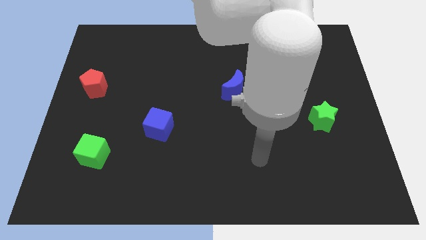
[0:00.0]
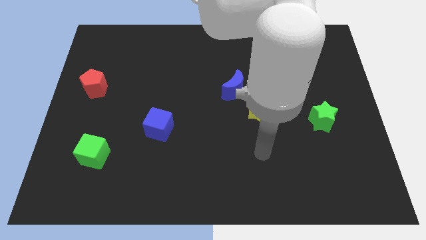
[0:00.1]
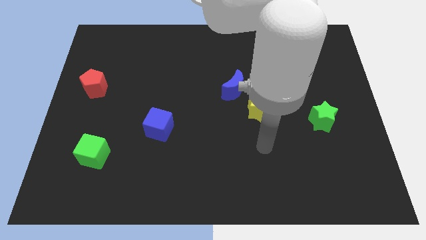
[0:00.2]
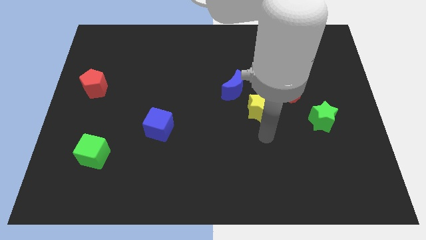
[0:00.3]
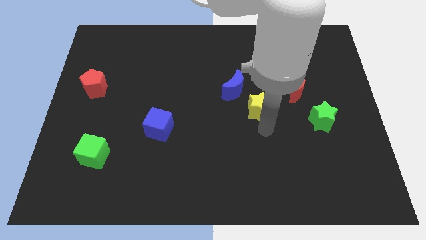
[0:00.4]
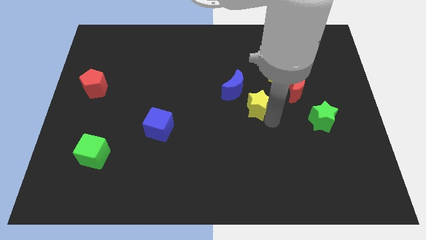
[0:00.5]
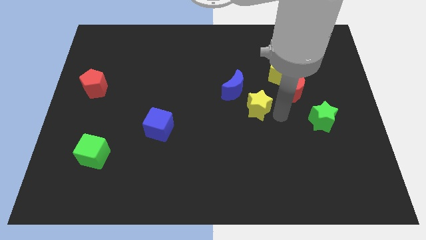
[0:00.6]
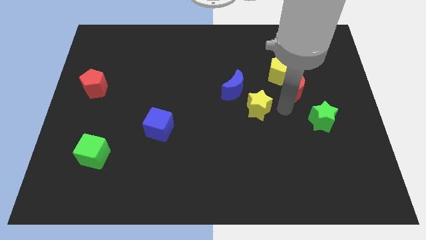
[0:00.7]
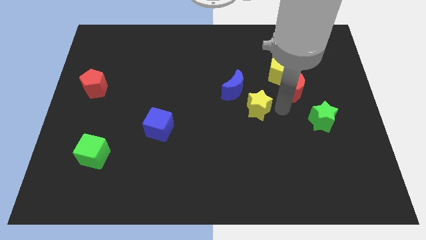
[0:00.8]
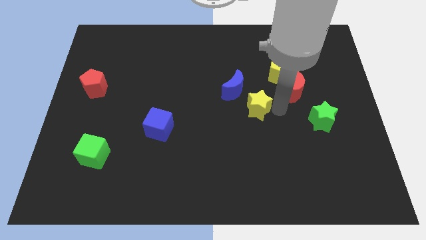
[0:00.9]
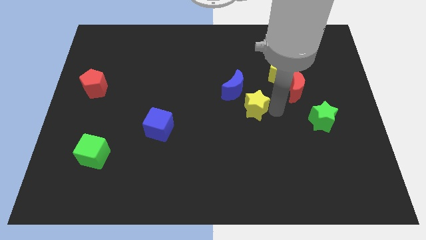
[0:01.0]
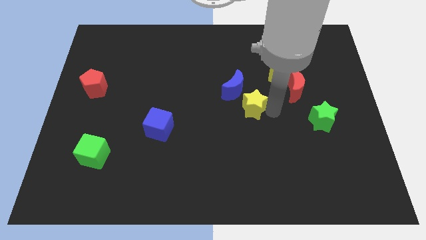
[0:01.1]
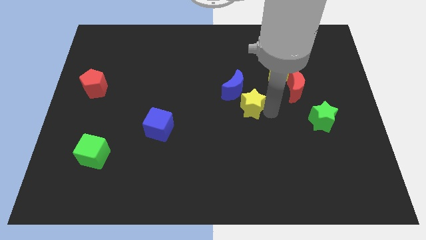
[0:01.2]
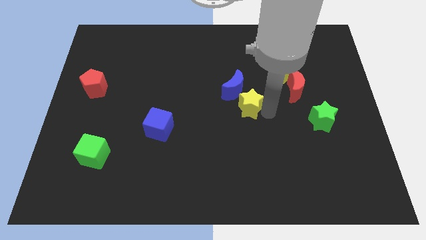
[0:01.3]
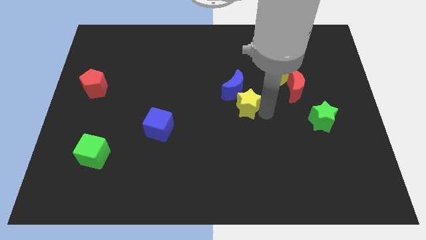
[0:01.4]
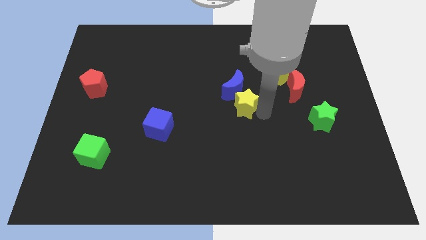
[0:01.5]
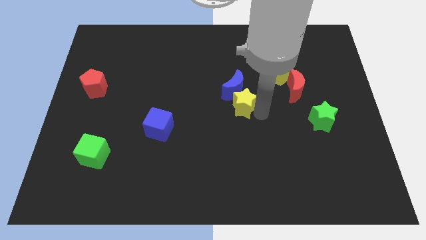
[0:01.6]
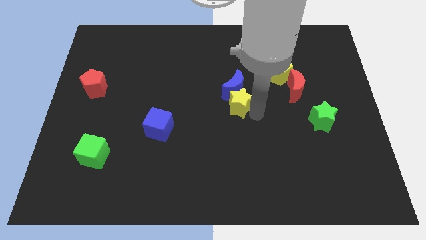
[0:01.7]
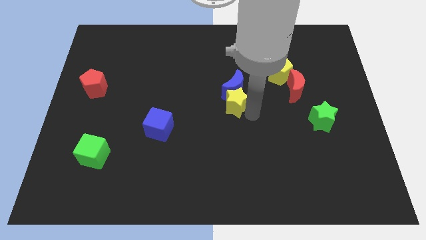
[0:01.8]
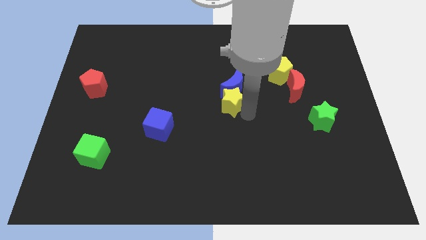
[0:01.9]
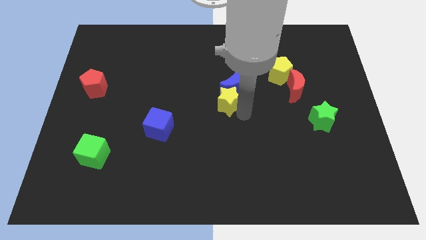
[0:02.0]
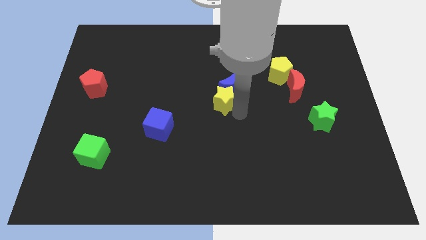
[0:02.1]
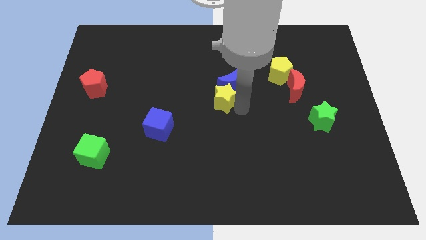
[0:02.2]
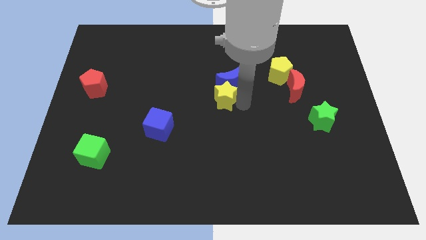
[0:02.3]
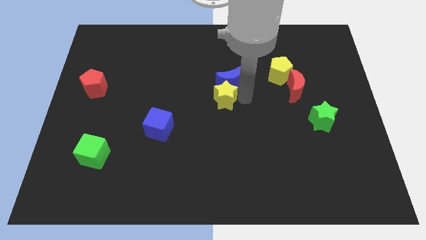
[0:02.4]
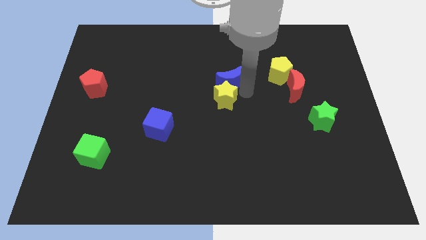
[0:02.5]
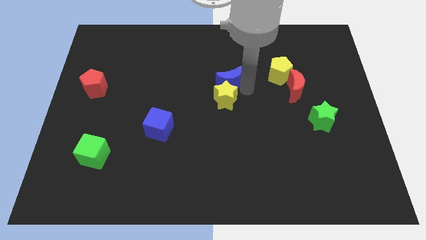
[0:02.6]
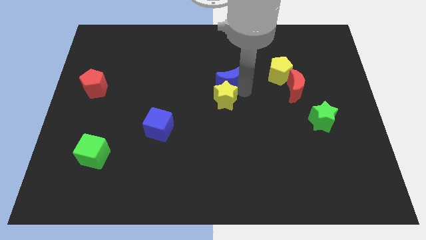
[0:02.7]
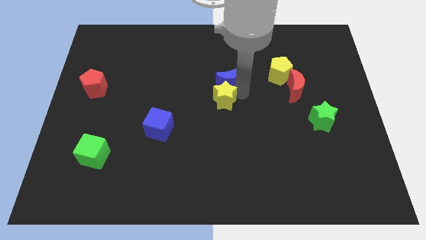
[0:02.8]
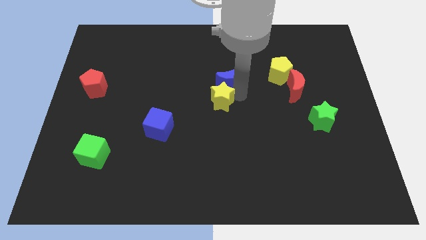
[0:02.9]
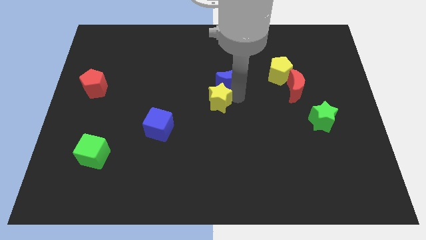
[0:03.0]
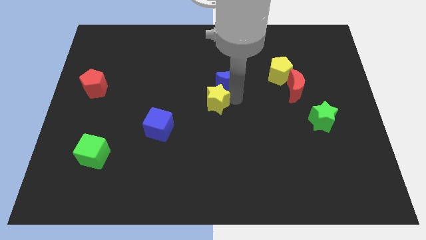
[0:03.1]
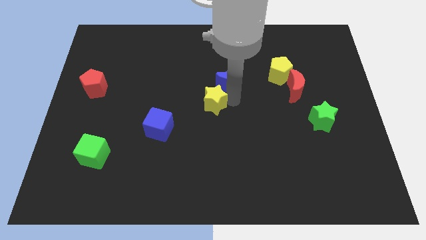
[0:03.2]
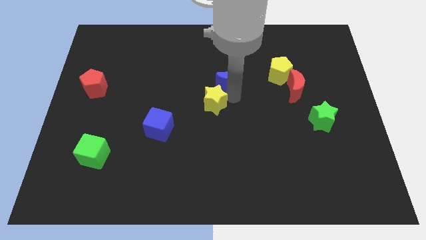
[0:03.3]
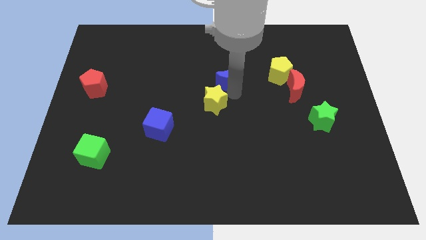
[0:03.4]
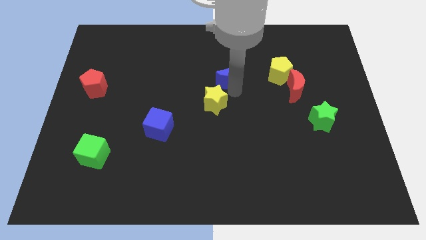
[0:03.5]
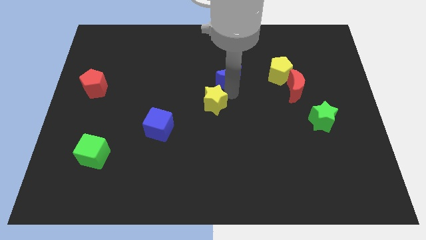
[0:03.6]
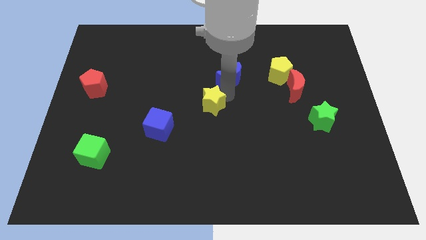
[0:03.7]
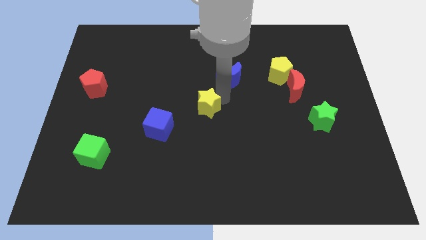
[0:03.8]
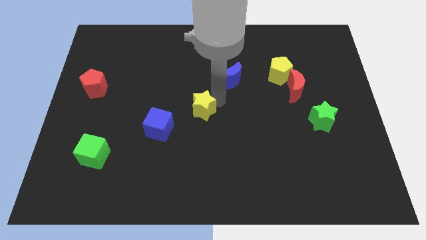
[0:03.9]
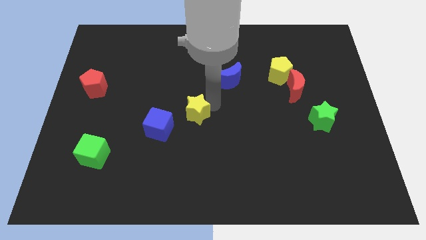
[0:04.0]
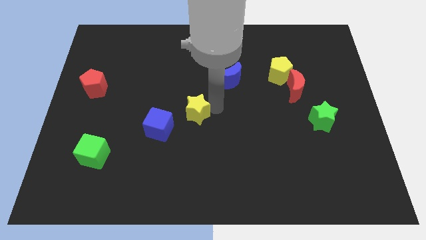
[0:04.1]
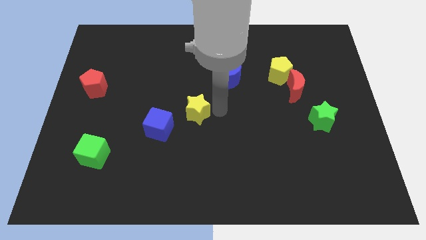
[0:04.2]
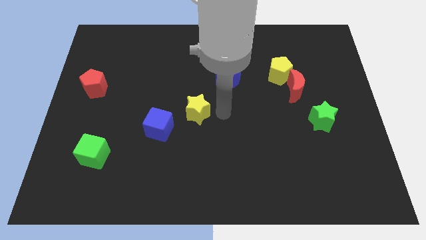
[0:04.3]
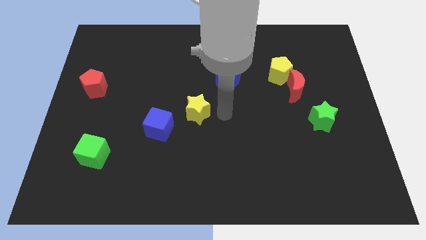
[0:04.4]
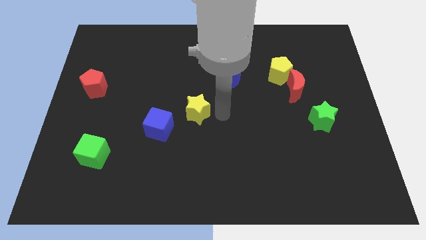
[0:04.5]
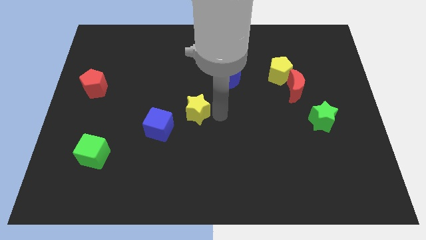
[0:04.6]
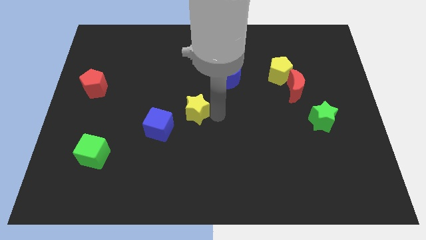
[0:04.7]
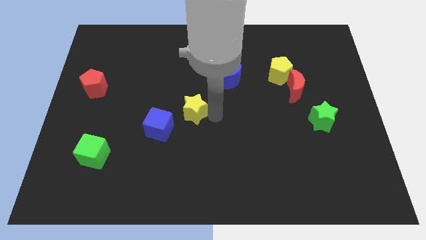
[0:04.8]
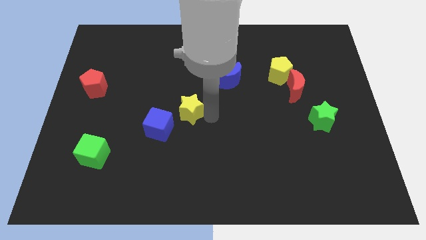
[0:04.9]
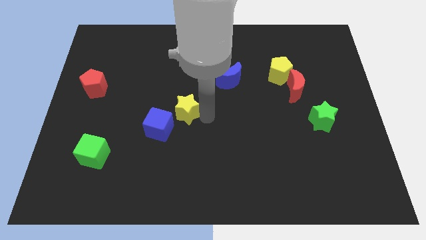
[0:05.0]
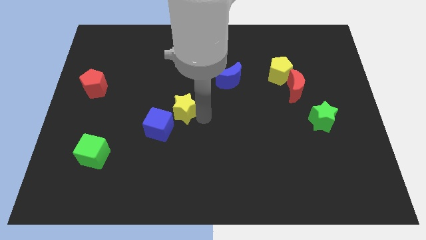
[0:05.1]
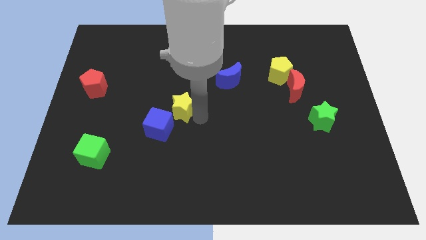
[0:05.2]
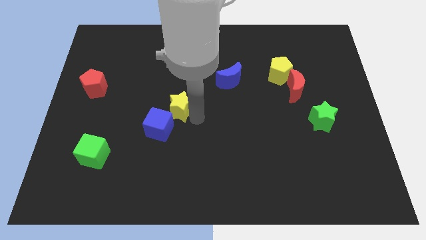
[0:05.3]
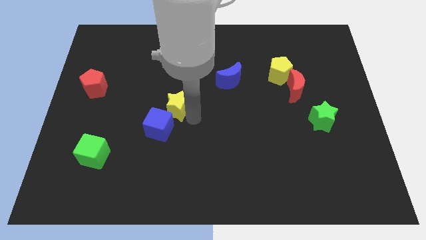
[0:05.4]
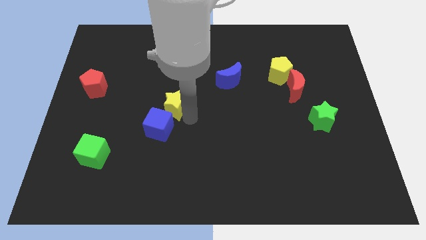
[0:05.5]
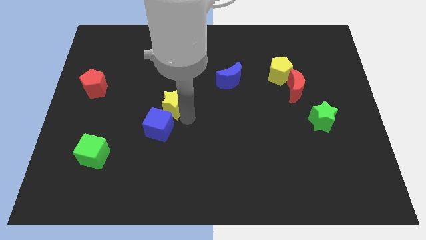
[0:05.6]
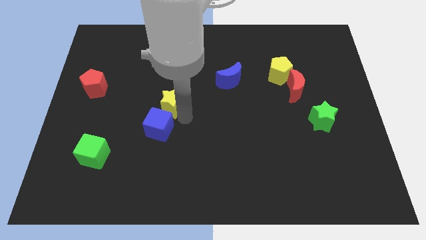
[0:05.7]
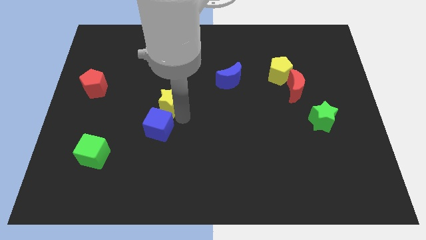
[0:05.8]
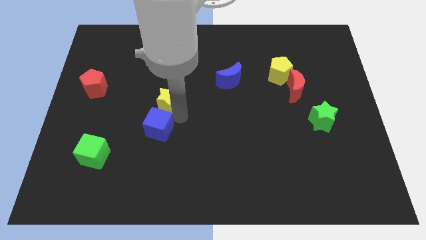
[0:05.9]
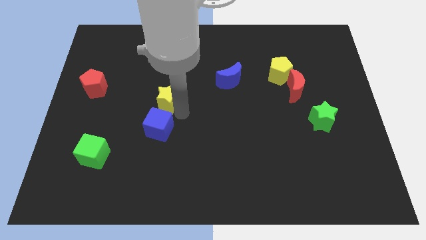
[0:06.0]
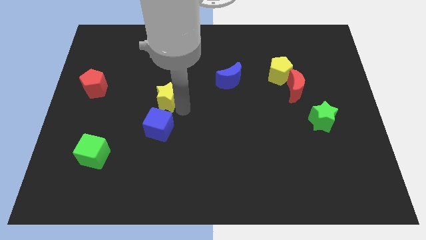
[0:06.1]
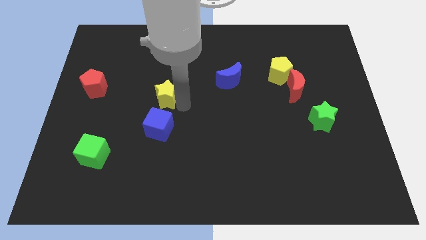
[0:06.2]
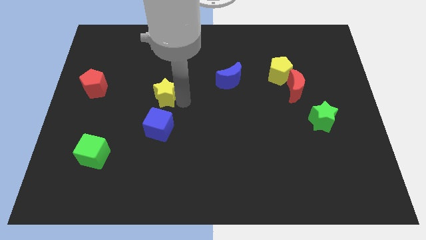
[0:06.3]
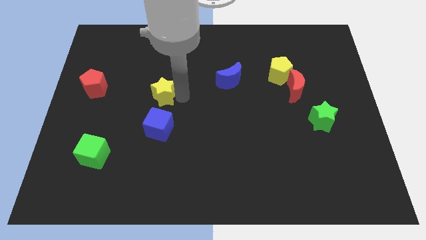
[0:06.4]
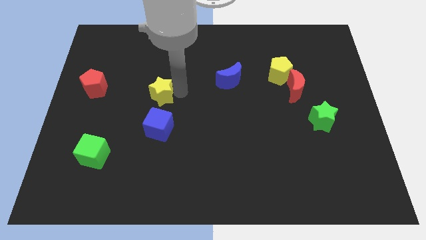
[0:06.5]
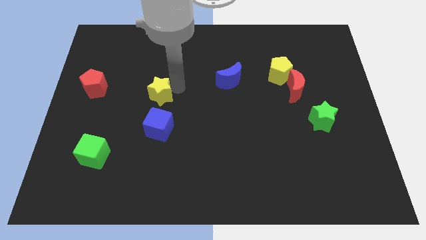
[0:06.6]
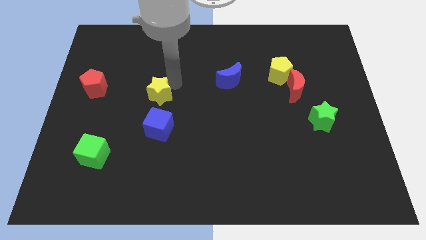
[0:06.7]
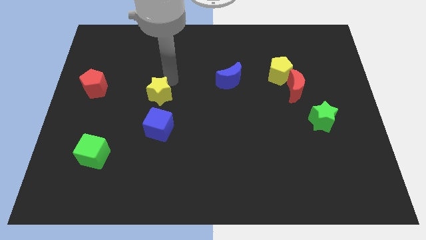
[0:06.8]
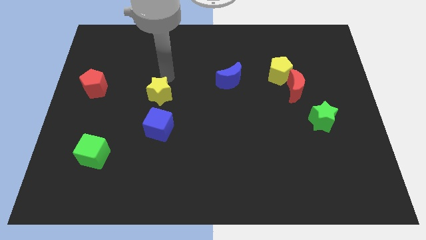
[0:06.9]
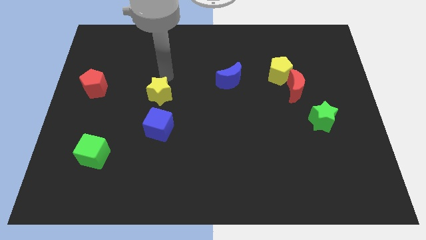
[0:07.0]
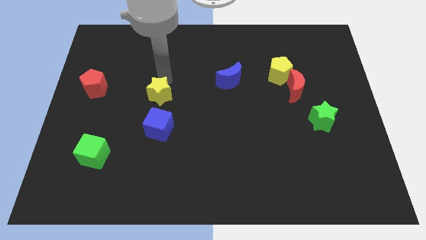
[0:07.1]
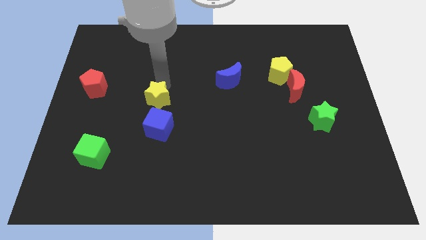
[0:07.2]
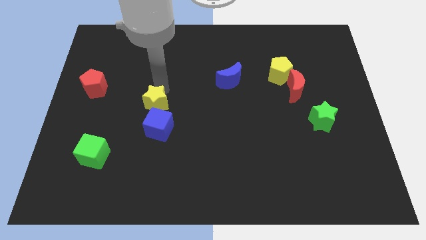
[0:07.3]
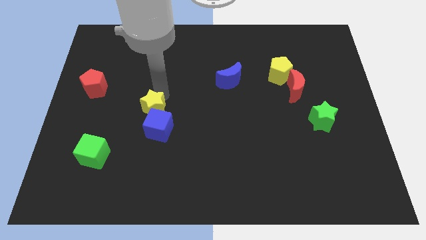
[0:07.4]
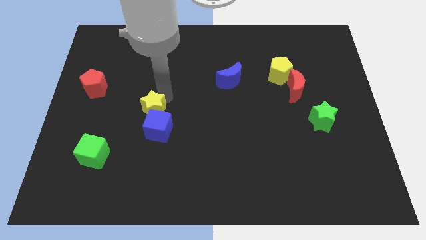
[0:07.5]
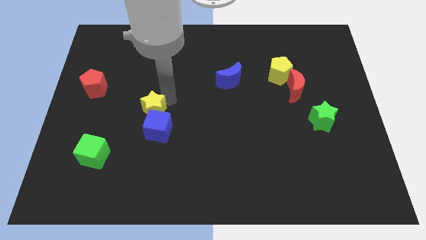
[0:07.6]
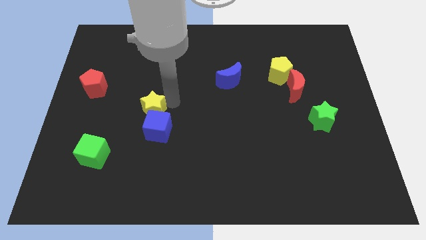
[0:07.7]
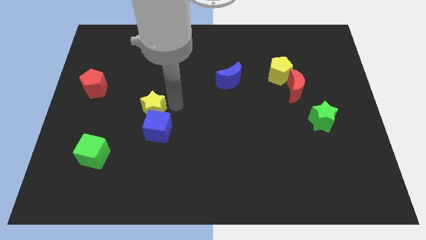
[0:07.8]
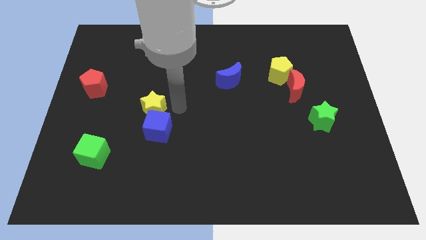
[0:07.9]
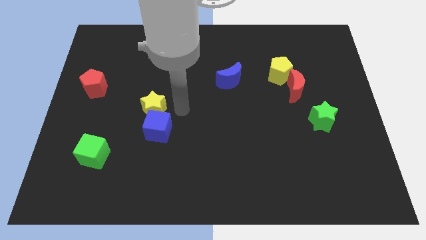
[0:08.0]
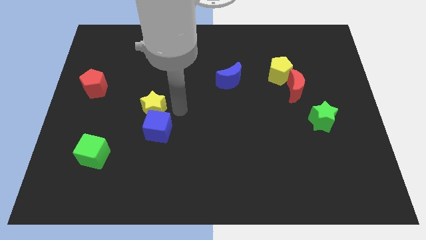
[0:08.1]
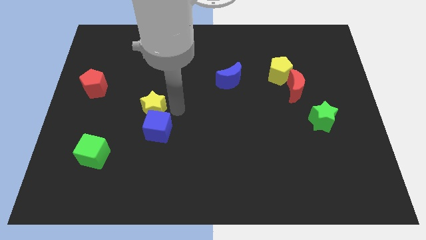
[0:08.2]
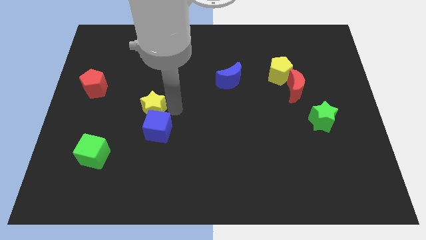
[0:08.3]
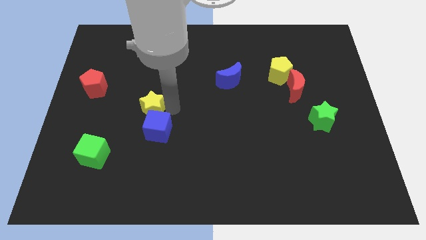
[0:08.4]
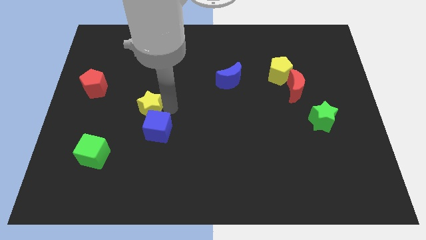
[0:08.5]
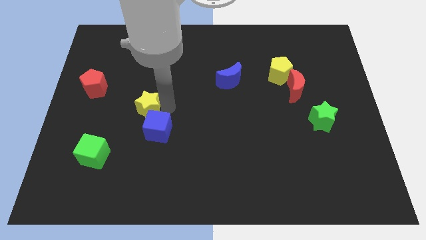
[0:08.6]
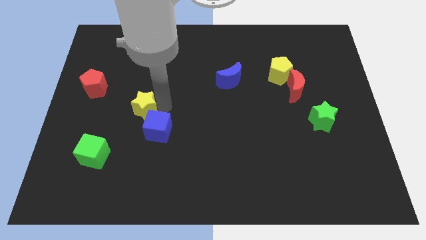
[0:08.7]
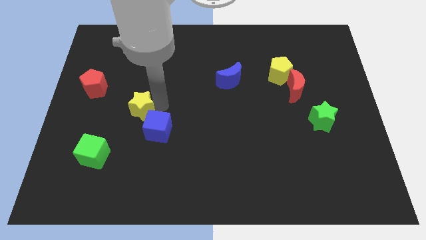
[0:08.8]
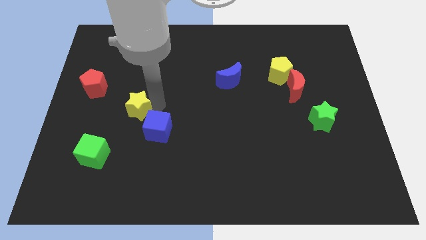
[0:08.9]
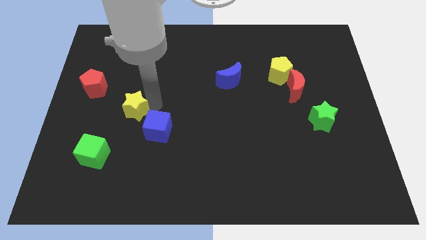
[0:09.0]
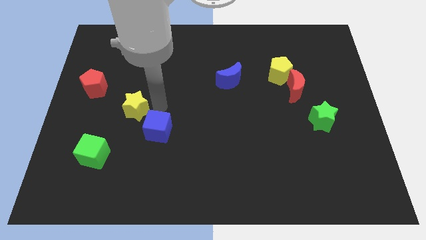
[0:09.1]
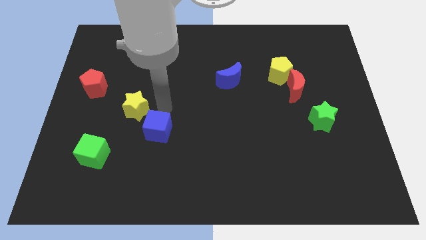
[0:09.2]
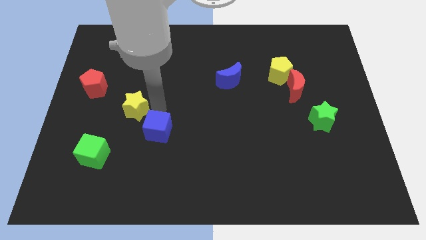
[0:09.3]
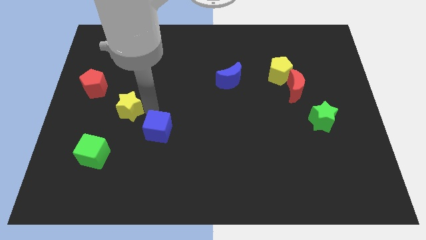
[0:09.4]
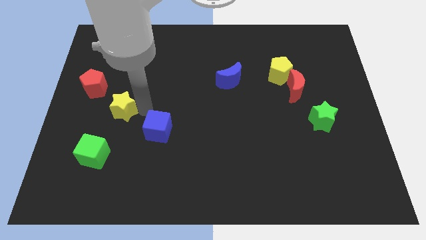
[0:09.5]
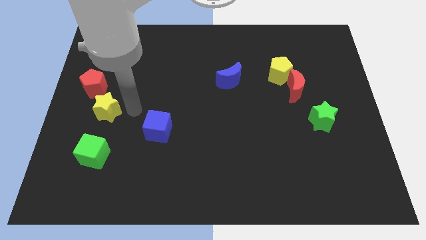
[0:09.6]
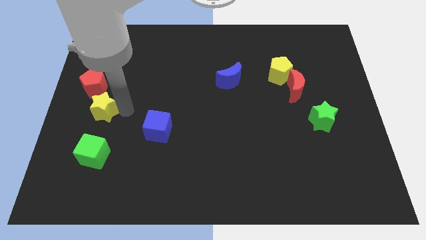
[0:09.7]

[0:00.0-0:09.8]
move the yellow star to the center left
